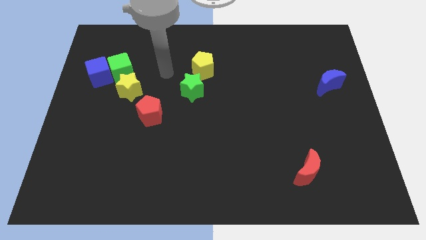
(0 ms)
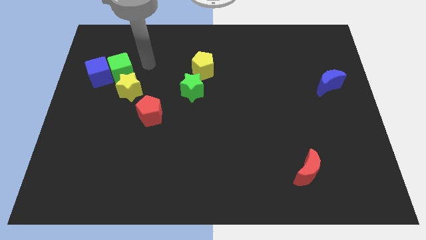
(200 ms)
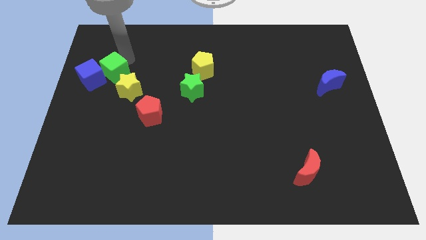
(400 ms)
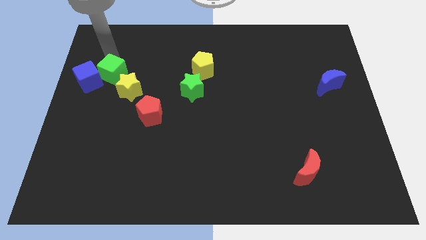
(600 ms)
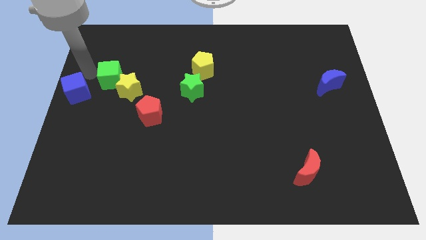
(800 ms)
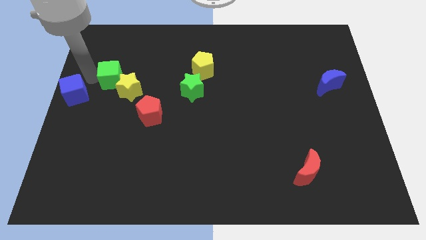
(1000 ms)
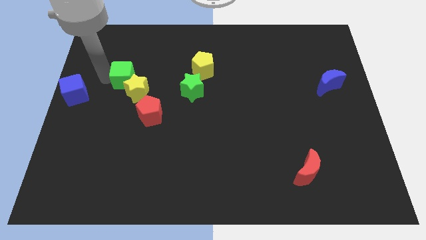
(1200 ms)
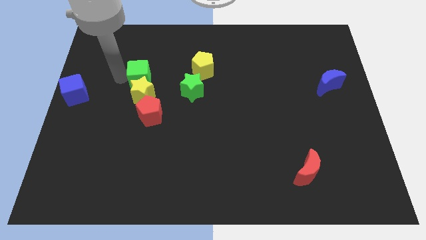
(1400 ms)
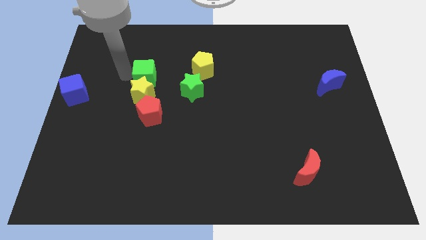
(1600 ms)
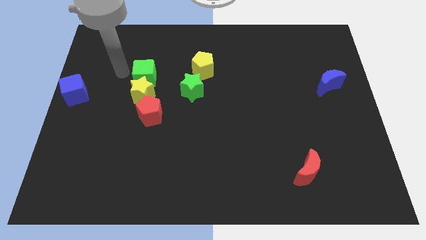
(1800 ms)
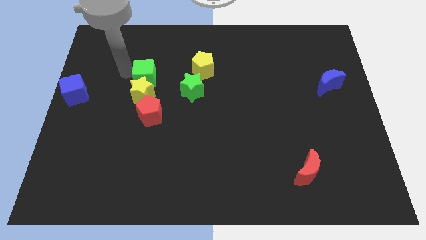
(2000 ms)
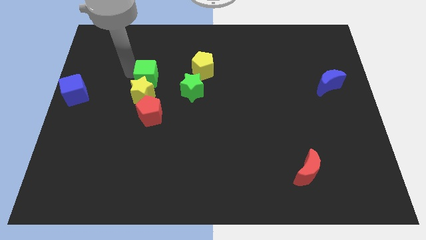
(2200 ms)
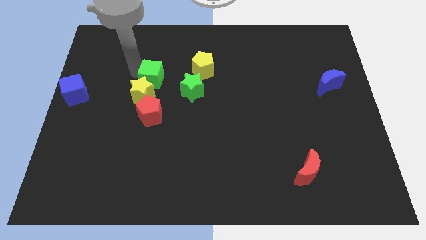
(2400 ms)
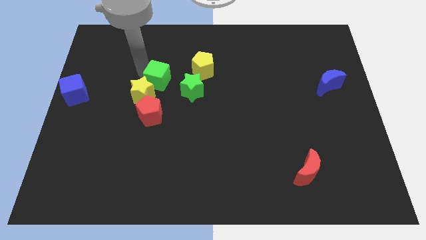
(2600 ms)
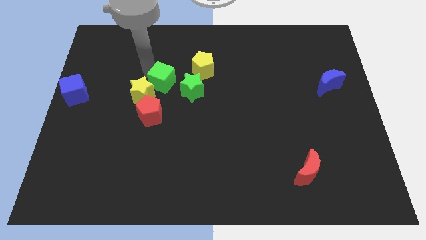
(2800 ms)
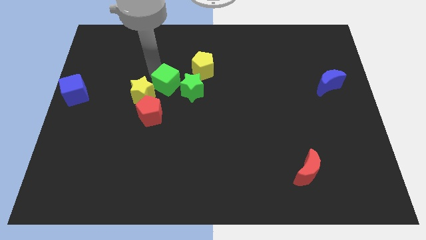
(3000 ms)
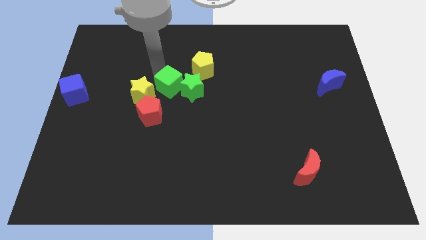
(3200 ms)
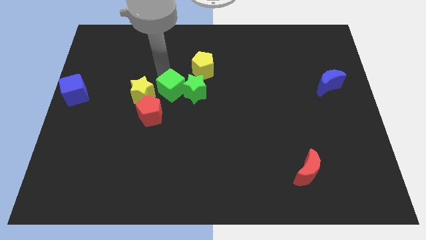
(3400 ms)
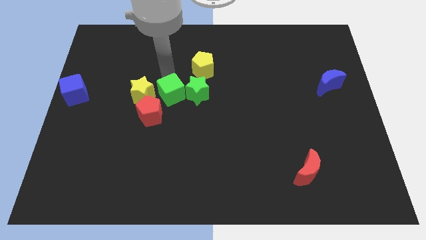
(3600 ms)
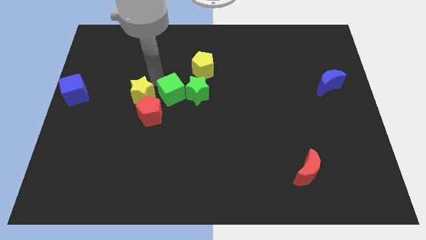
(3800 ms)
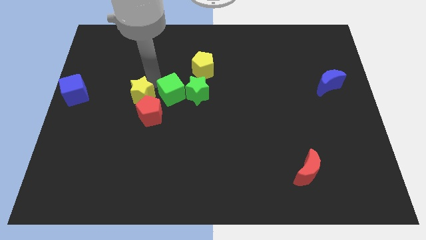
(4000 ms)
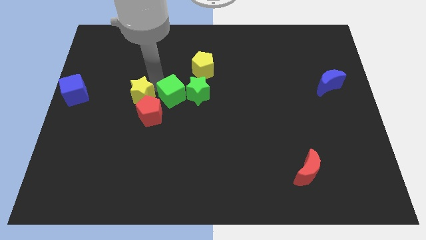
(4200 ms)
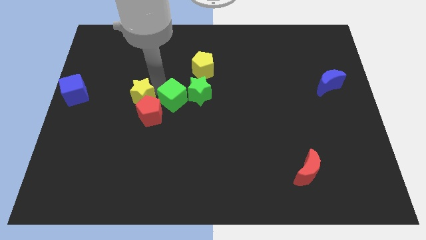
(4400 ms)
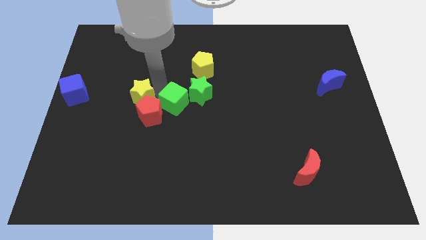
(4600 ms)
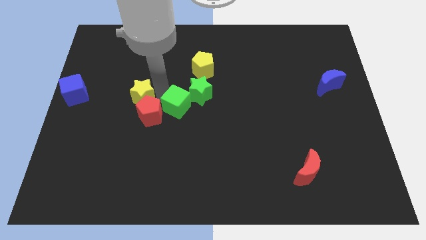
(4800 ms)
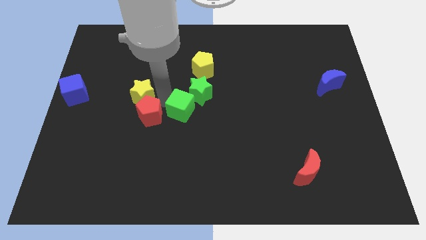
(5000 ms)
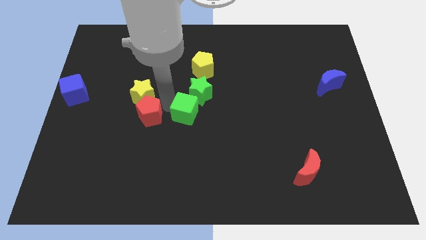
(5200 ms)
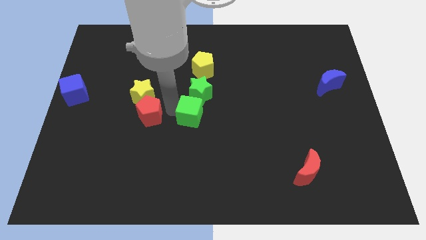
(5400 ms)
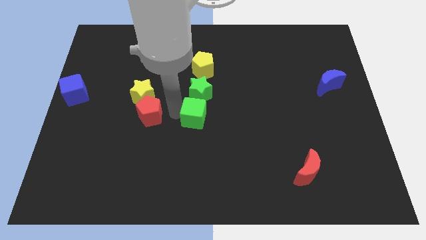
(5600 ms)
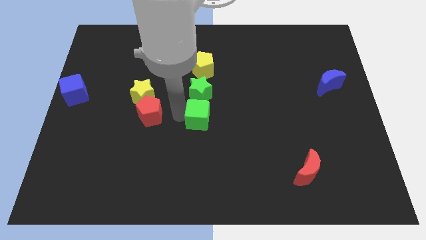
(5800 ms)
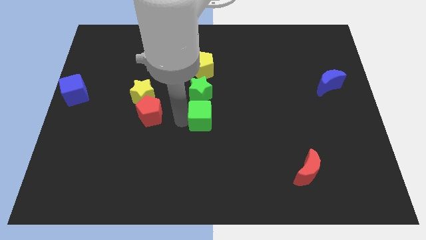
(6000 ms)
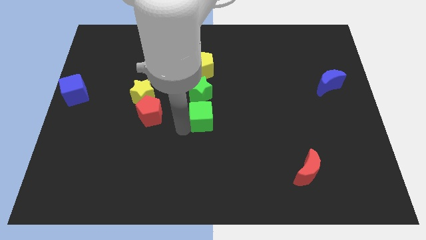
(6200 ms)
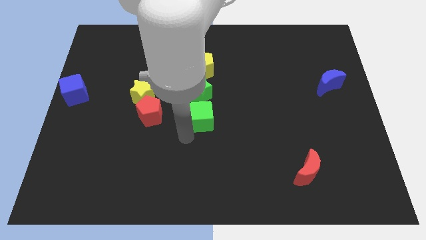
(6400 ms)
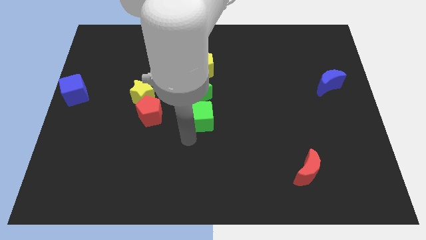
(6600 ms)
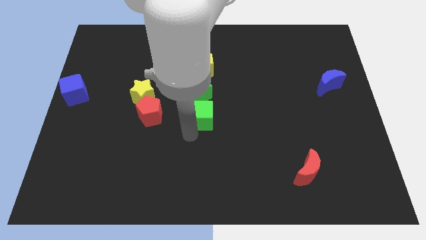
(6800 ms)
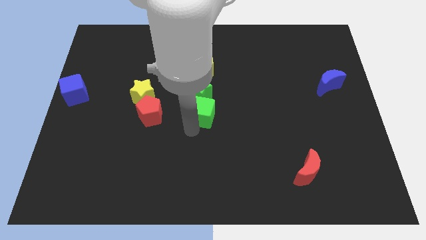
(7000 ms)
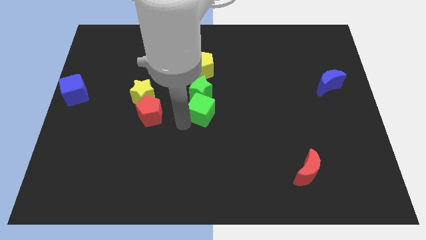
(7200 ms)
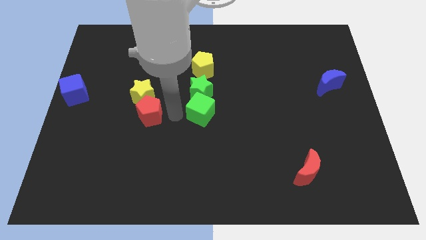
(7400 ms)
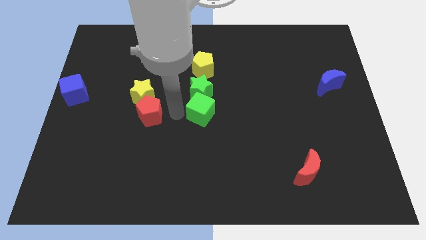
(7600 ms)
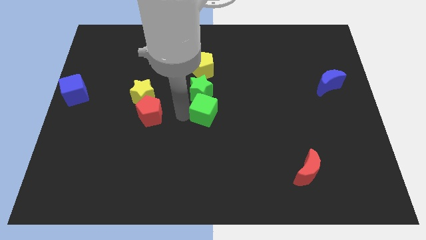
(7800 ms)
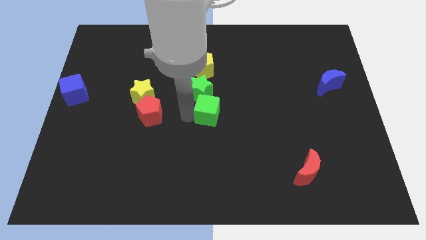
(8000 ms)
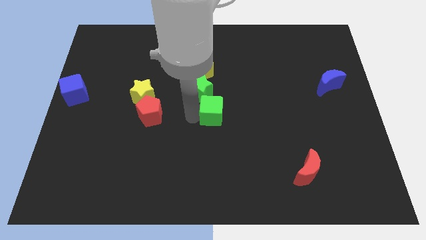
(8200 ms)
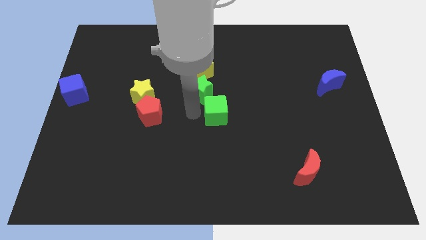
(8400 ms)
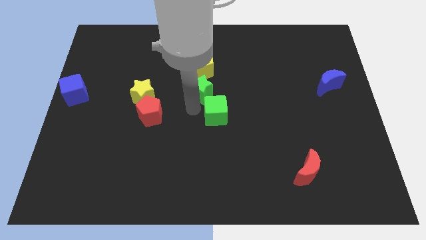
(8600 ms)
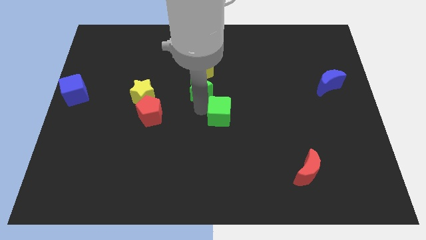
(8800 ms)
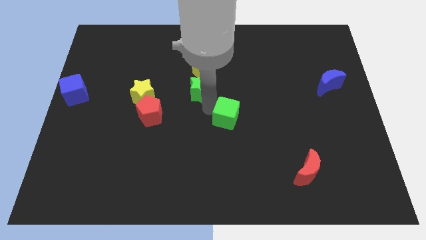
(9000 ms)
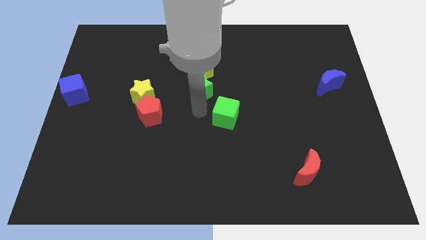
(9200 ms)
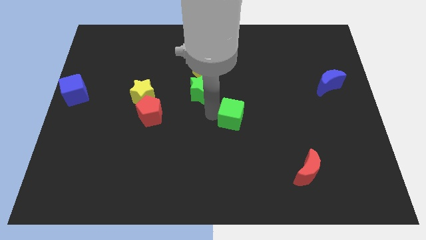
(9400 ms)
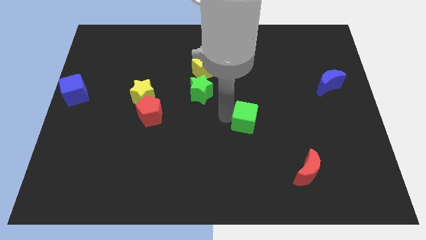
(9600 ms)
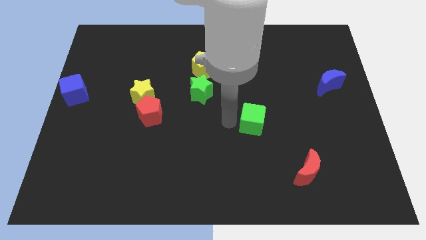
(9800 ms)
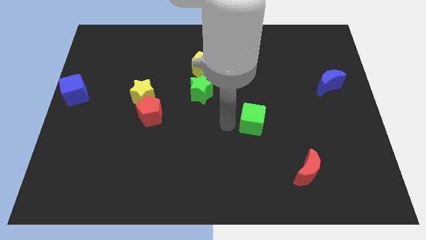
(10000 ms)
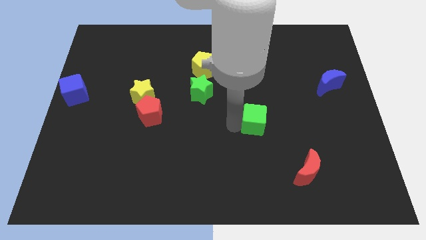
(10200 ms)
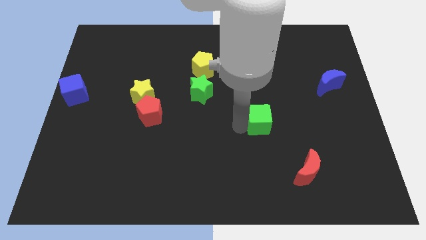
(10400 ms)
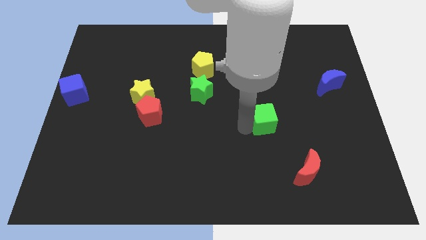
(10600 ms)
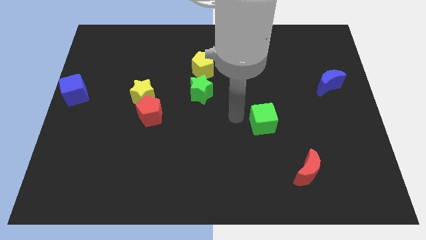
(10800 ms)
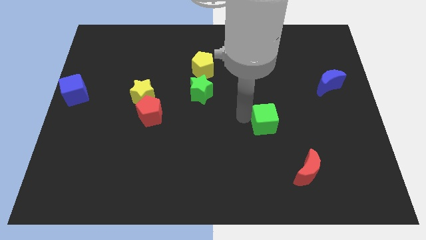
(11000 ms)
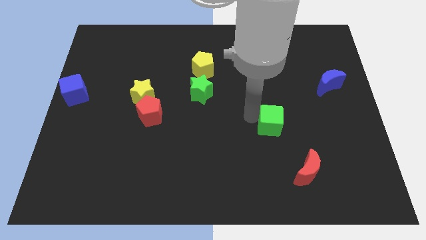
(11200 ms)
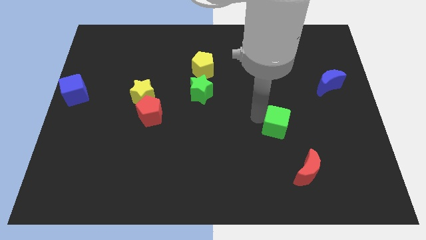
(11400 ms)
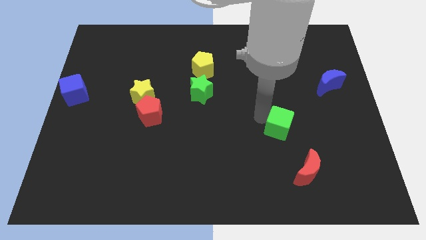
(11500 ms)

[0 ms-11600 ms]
push the green cube to the top side of the red moon

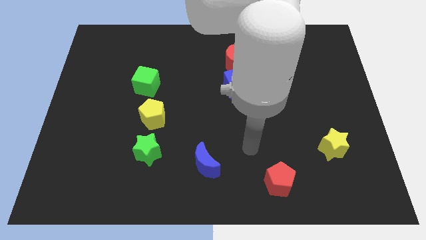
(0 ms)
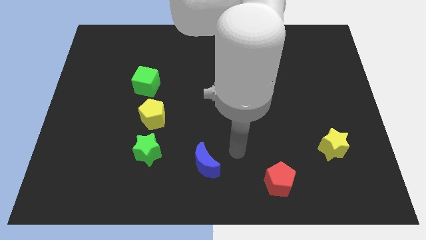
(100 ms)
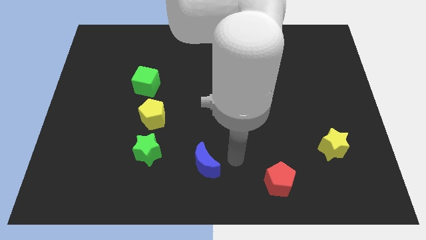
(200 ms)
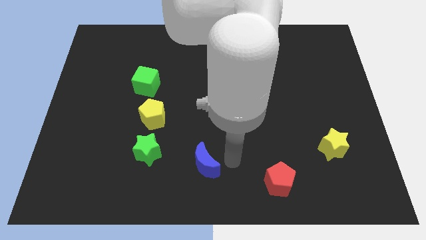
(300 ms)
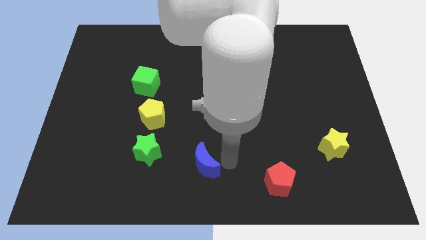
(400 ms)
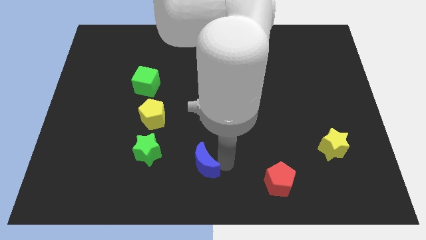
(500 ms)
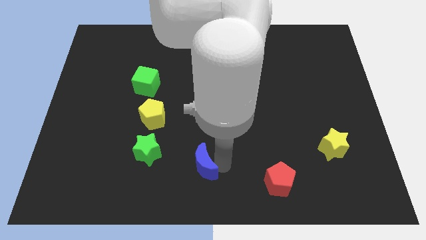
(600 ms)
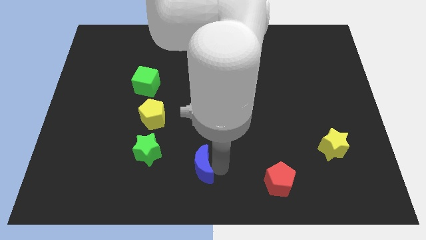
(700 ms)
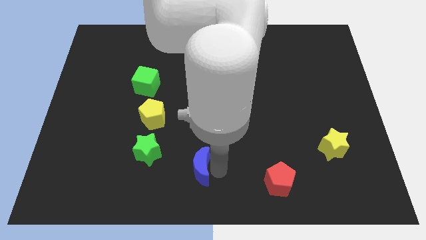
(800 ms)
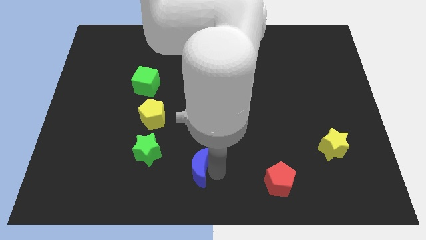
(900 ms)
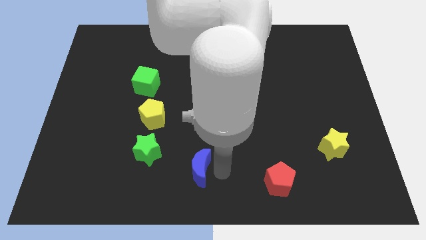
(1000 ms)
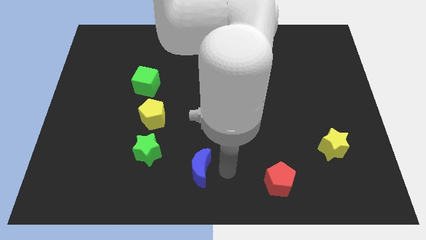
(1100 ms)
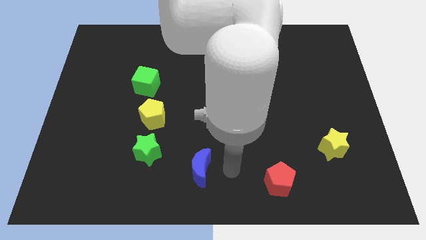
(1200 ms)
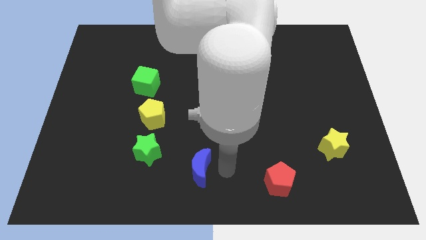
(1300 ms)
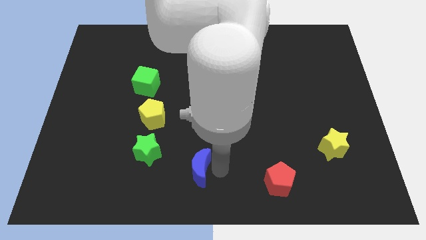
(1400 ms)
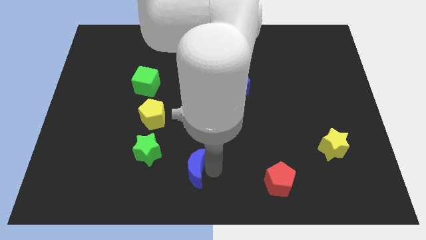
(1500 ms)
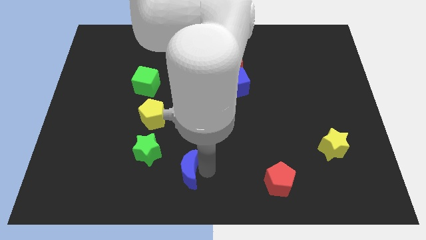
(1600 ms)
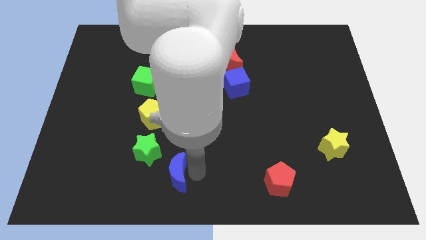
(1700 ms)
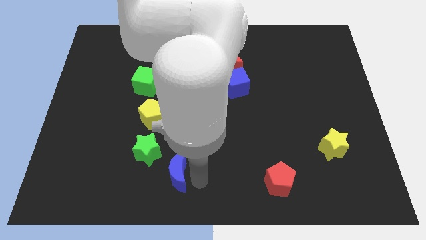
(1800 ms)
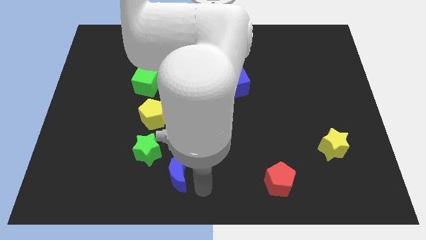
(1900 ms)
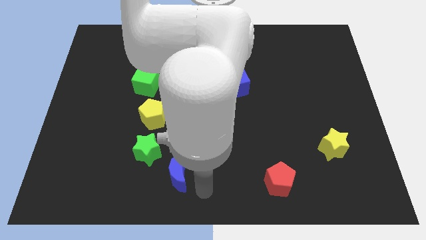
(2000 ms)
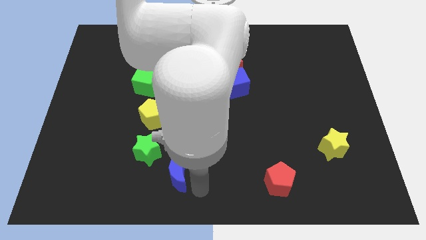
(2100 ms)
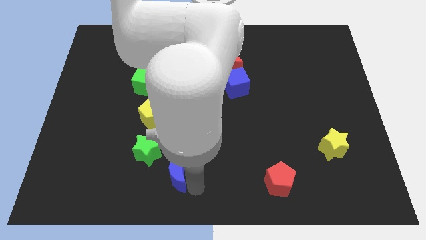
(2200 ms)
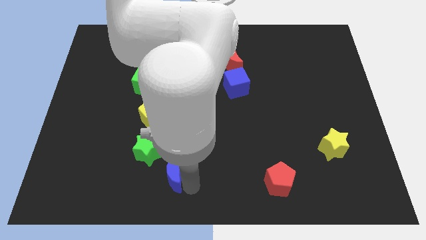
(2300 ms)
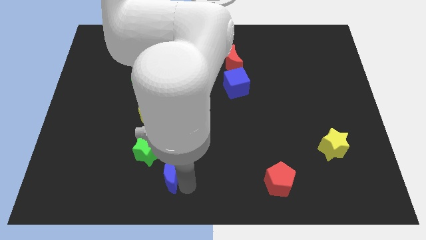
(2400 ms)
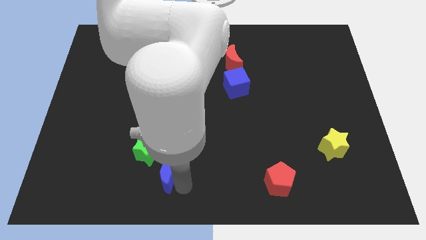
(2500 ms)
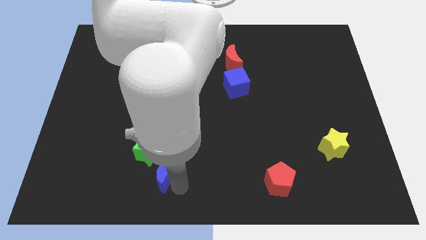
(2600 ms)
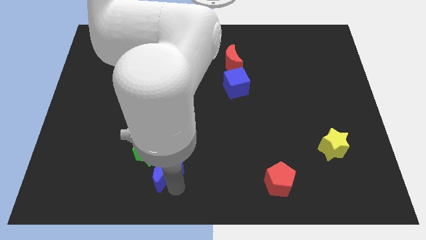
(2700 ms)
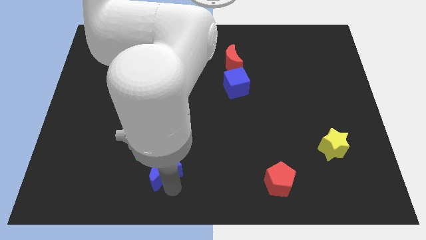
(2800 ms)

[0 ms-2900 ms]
move the blue moon below the yellow pentagon
